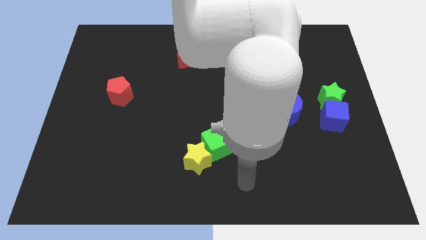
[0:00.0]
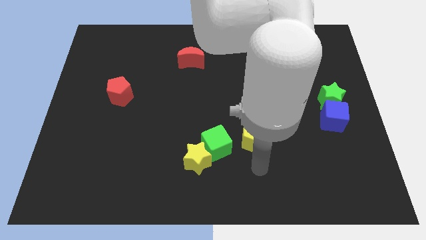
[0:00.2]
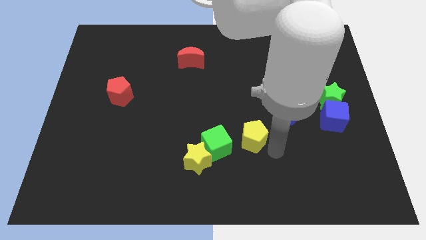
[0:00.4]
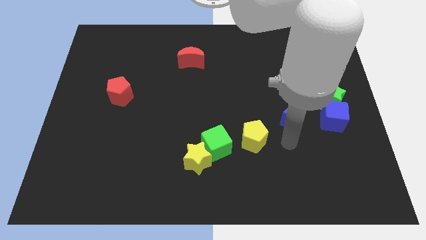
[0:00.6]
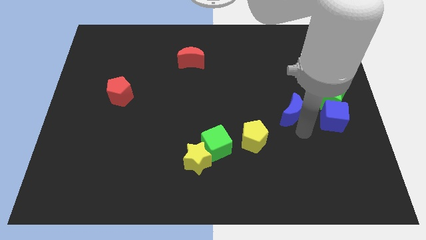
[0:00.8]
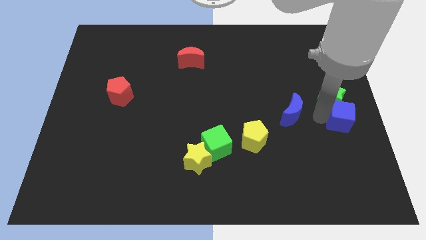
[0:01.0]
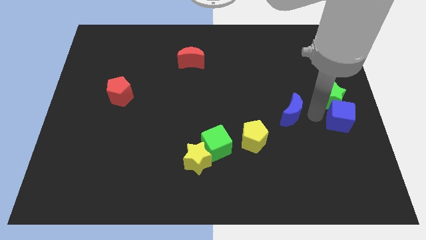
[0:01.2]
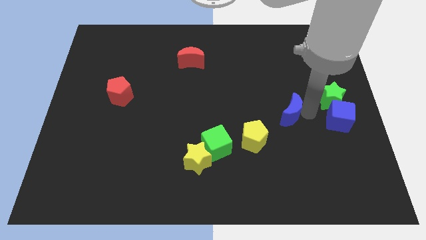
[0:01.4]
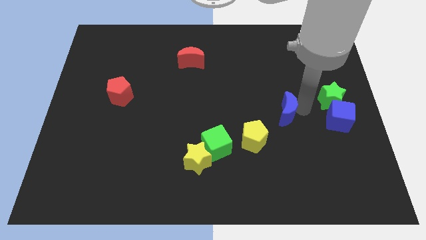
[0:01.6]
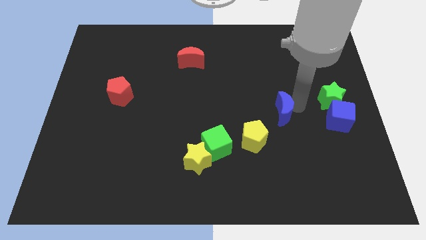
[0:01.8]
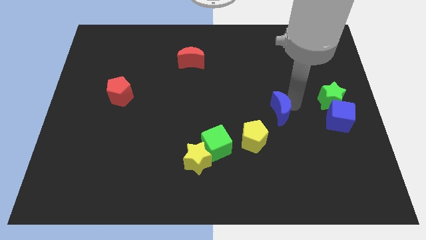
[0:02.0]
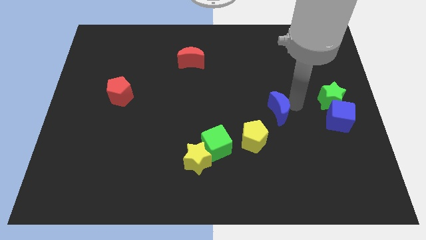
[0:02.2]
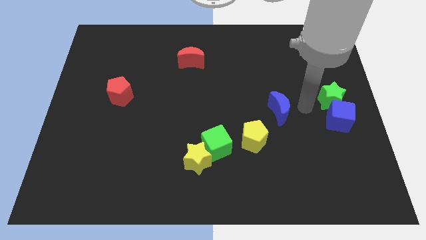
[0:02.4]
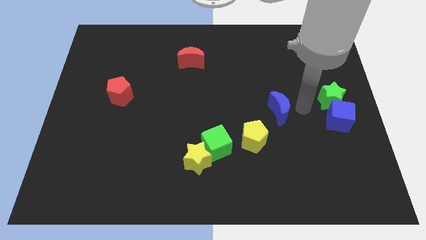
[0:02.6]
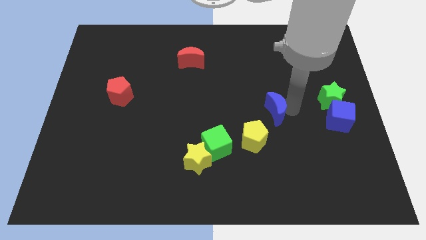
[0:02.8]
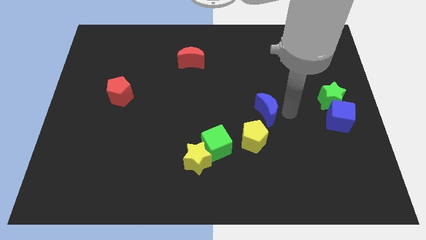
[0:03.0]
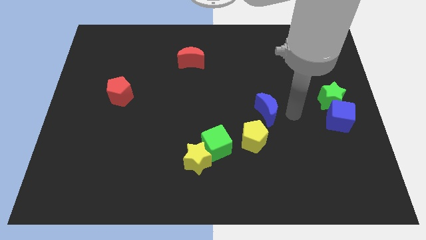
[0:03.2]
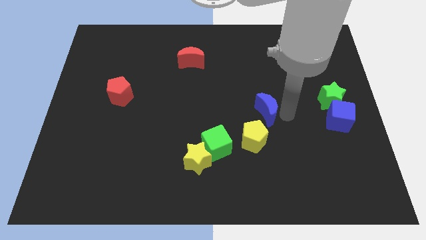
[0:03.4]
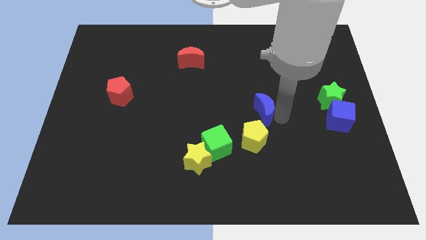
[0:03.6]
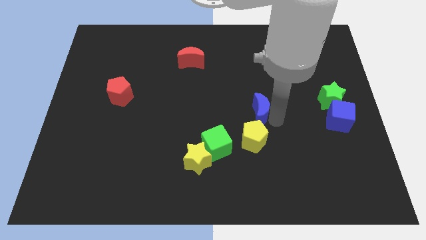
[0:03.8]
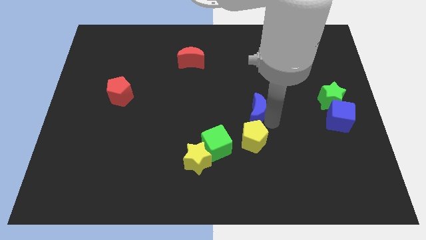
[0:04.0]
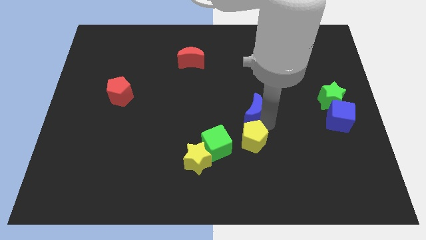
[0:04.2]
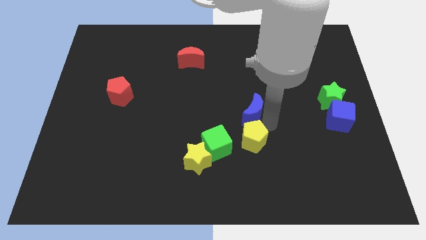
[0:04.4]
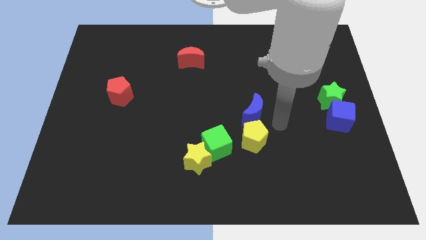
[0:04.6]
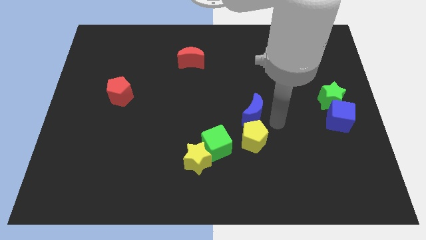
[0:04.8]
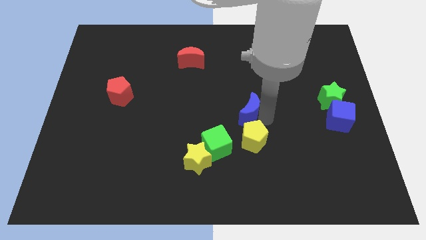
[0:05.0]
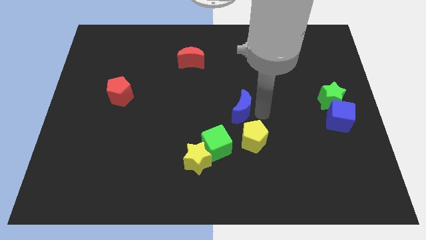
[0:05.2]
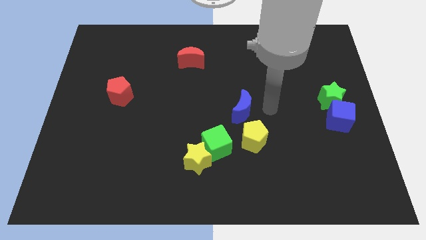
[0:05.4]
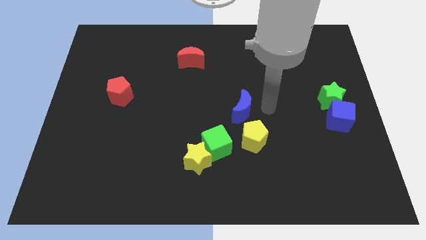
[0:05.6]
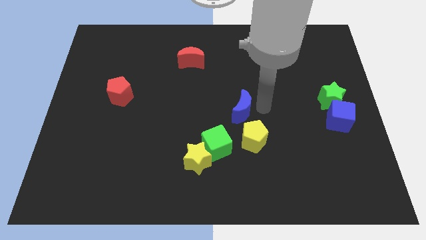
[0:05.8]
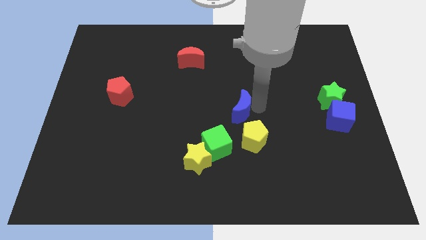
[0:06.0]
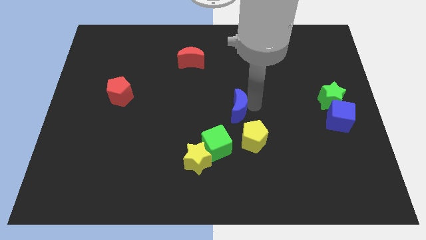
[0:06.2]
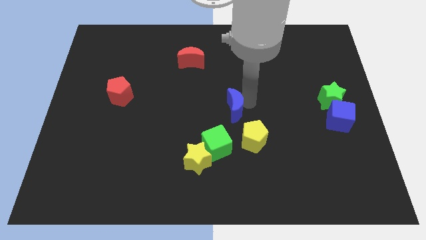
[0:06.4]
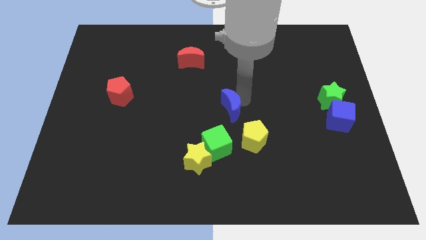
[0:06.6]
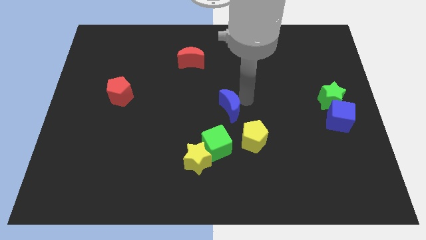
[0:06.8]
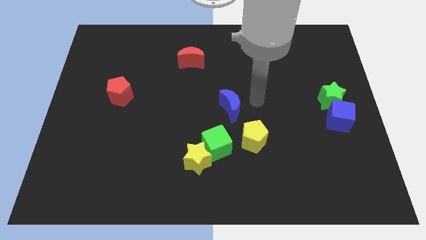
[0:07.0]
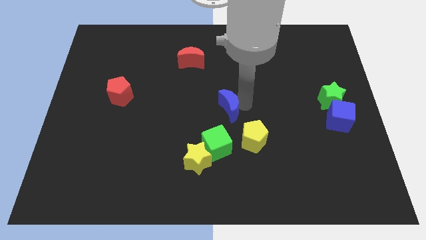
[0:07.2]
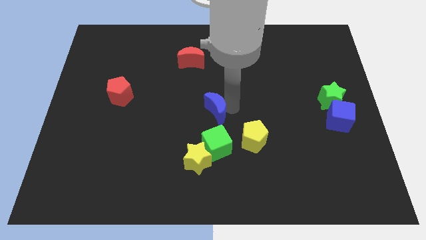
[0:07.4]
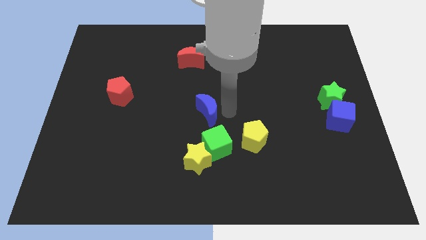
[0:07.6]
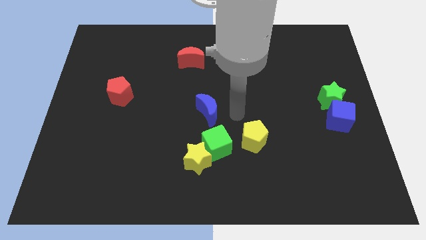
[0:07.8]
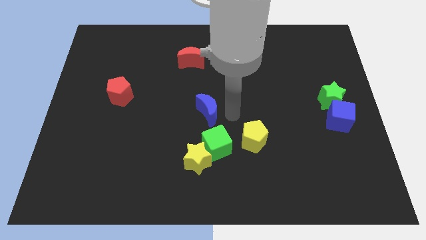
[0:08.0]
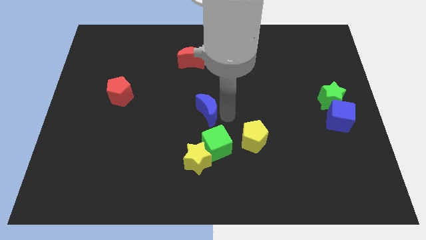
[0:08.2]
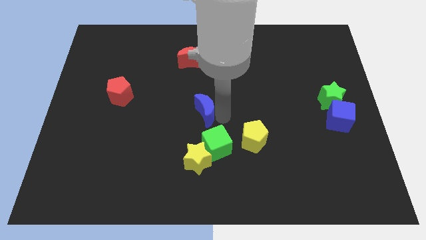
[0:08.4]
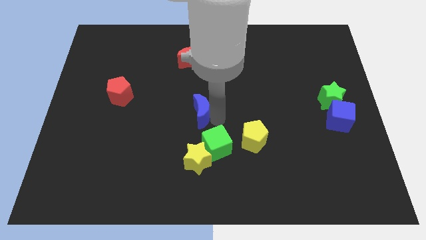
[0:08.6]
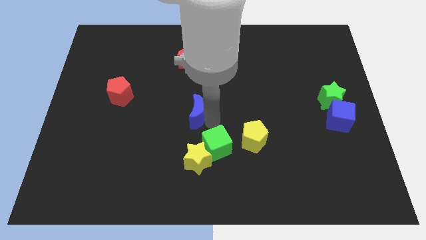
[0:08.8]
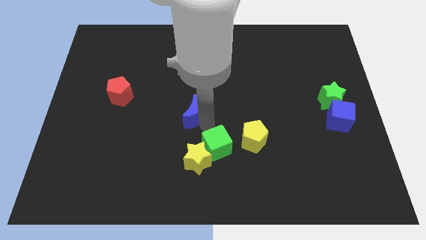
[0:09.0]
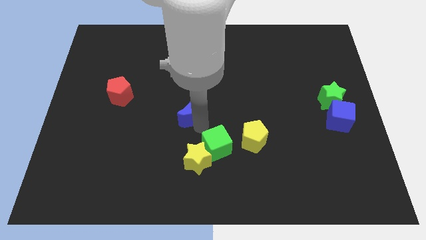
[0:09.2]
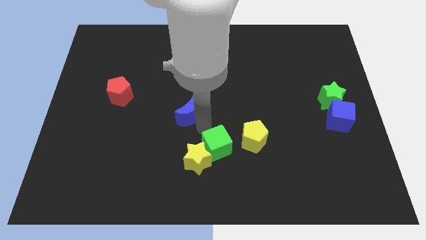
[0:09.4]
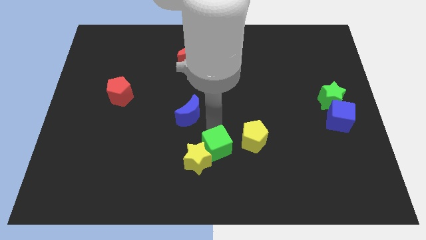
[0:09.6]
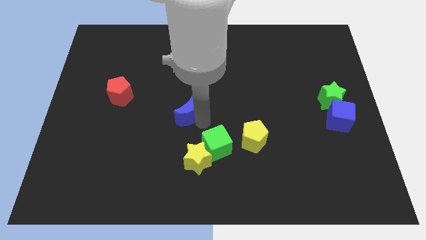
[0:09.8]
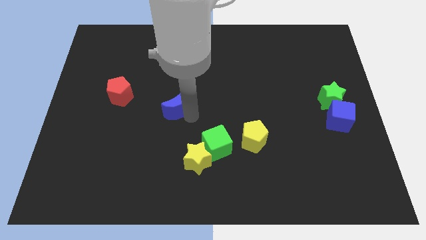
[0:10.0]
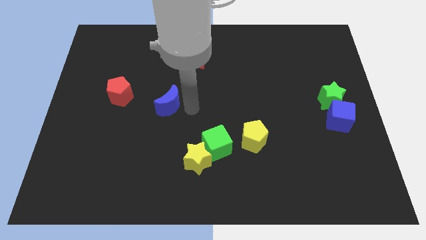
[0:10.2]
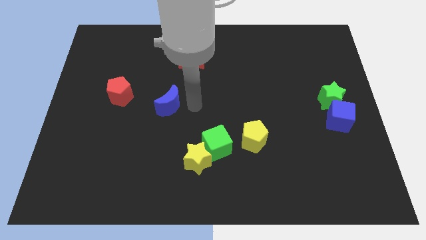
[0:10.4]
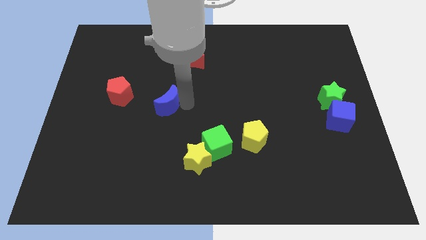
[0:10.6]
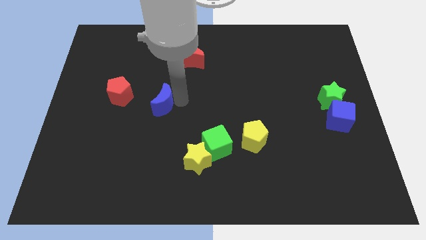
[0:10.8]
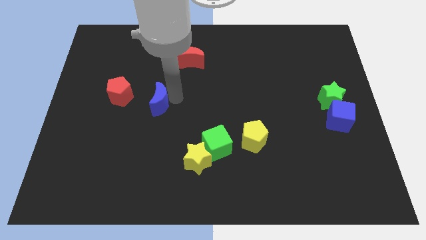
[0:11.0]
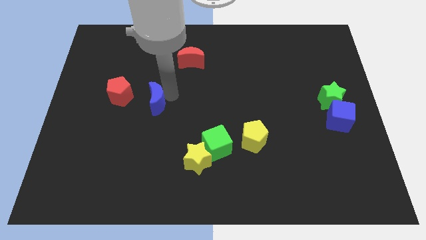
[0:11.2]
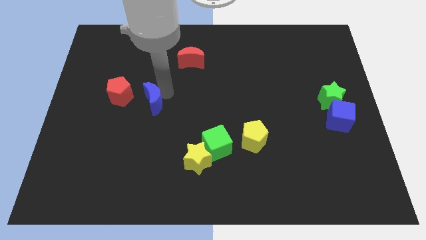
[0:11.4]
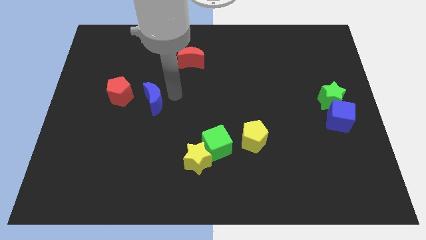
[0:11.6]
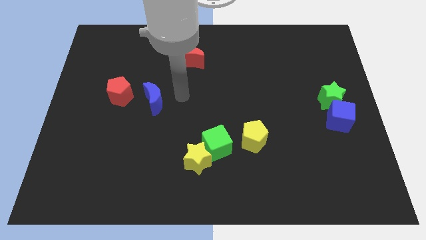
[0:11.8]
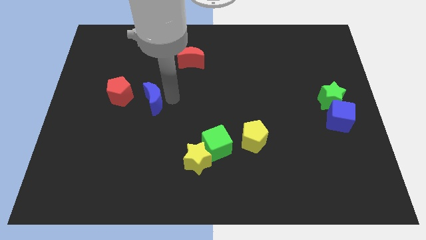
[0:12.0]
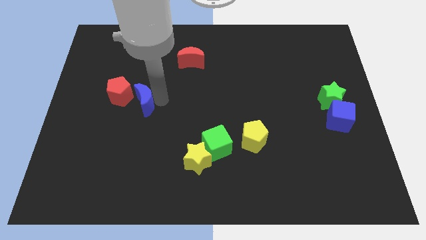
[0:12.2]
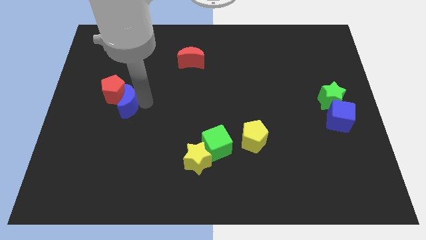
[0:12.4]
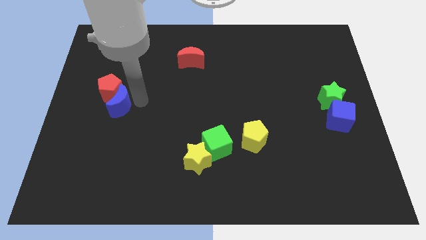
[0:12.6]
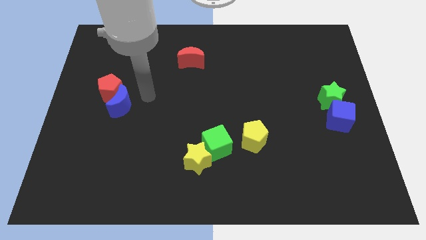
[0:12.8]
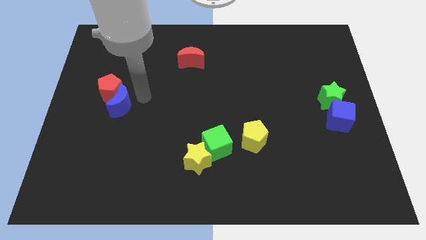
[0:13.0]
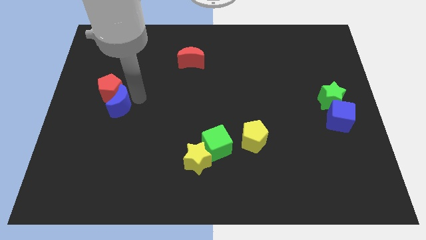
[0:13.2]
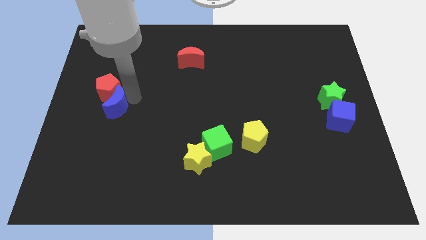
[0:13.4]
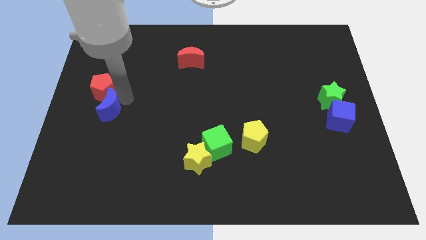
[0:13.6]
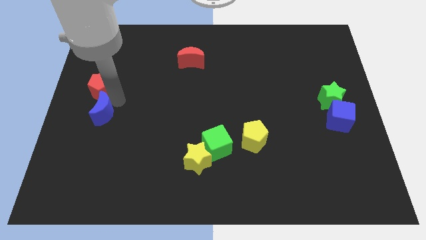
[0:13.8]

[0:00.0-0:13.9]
put the blue moon to the center left
